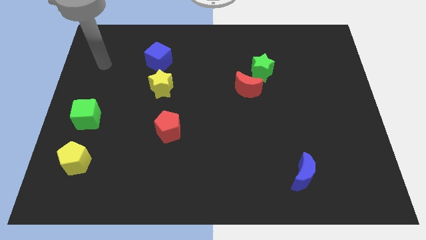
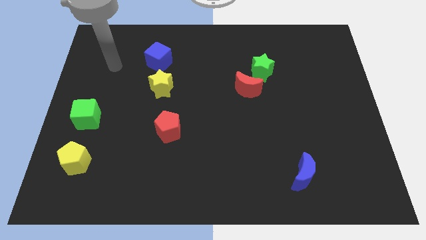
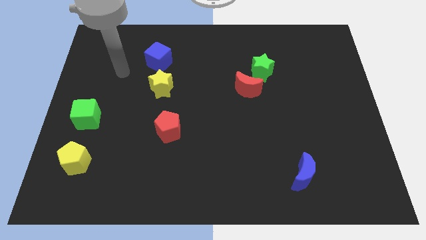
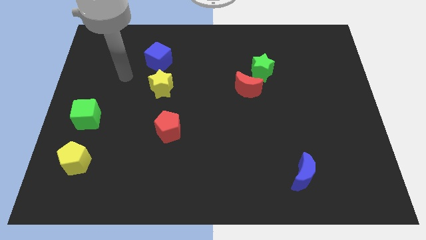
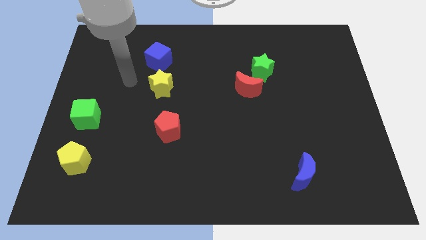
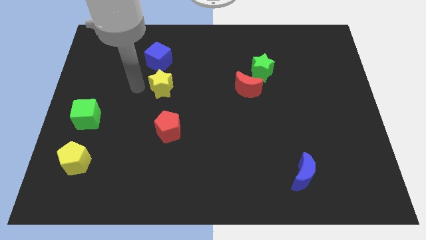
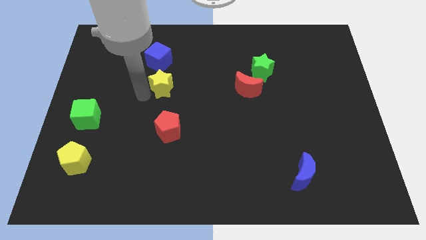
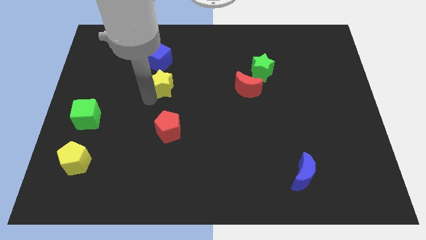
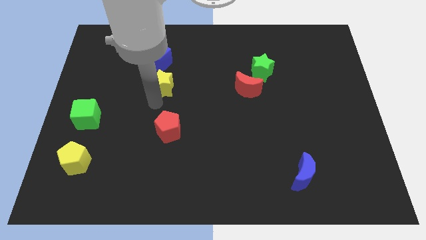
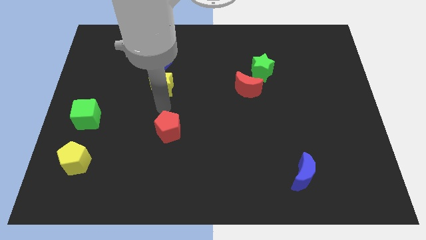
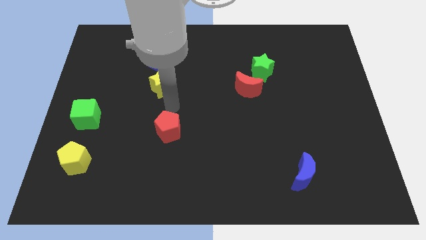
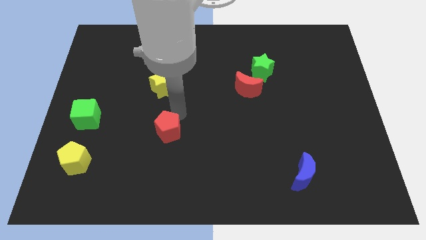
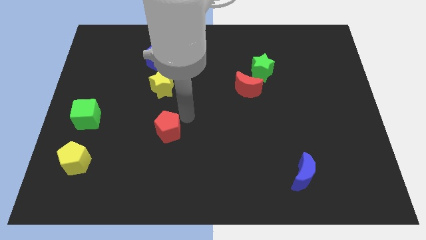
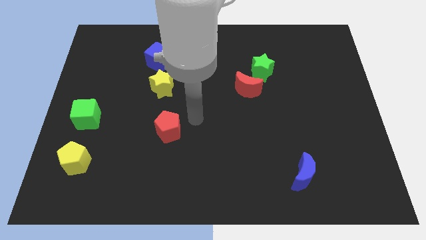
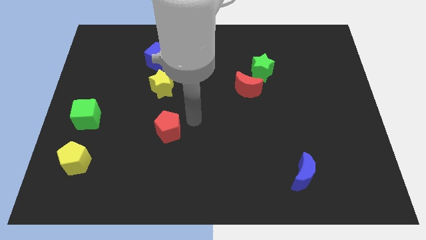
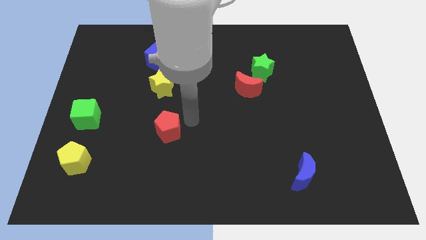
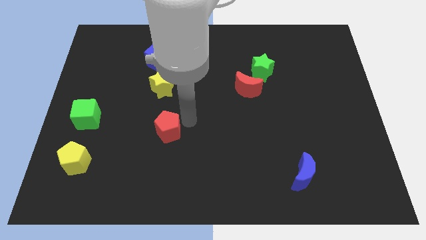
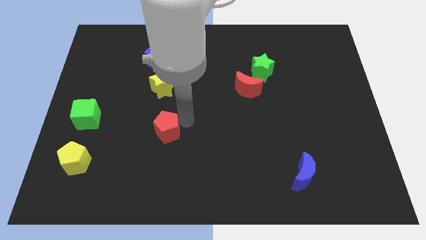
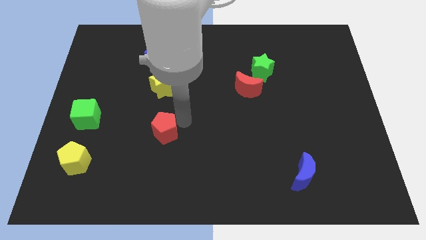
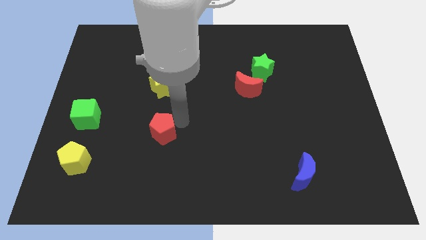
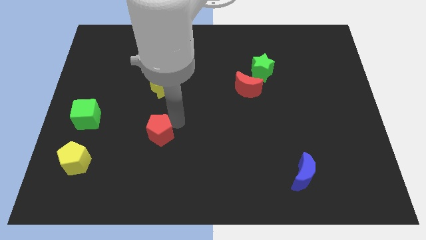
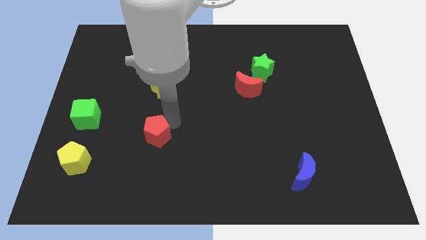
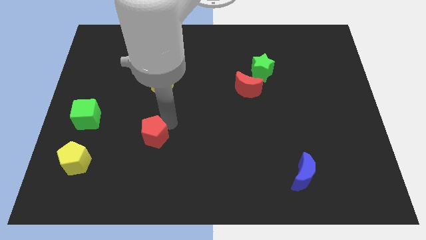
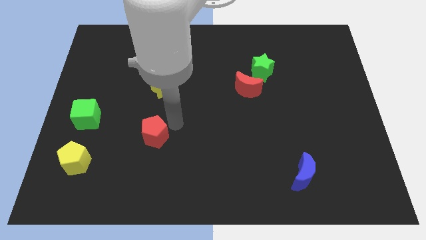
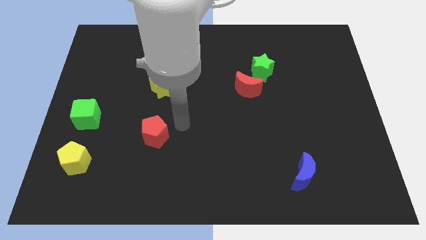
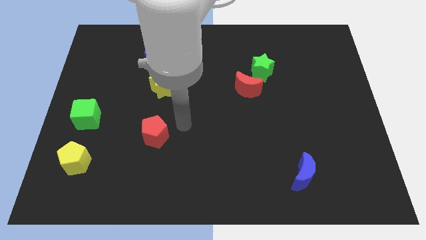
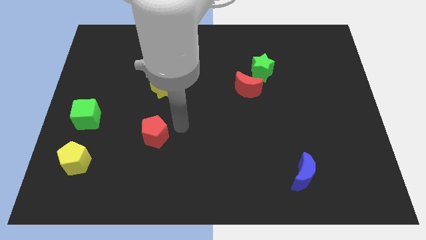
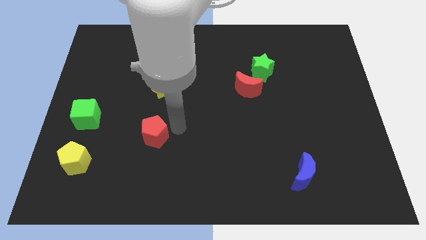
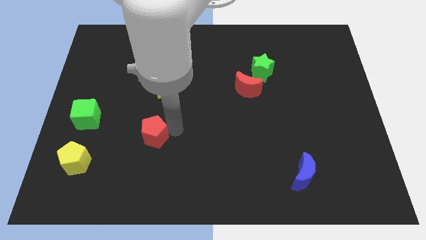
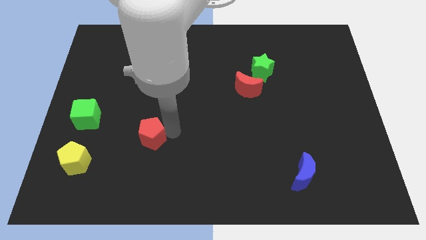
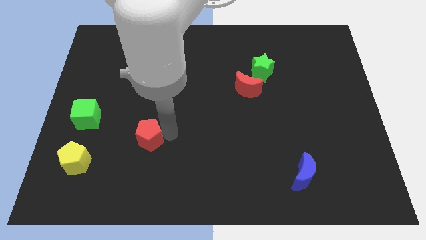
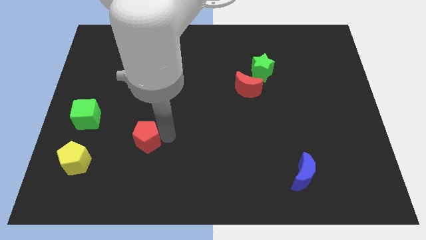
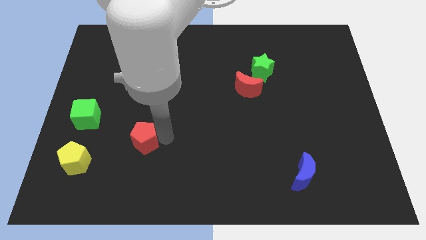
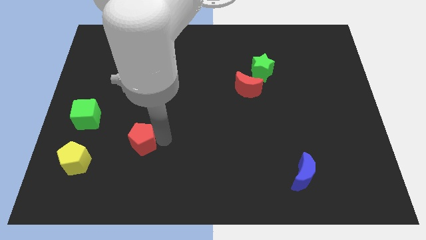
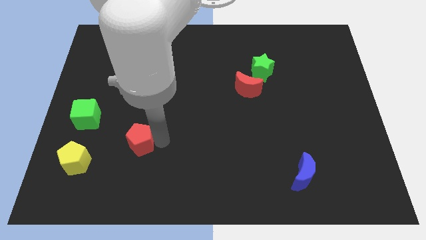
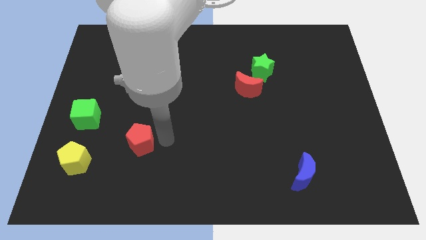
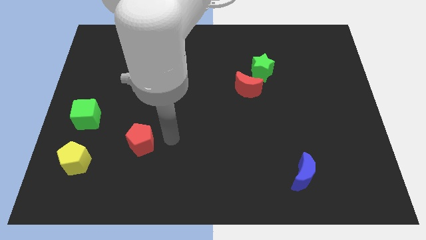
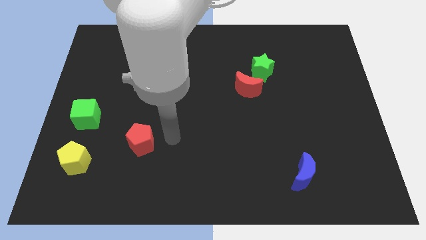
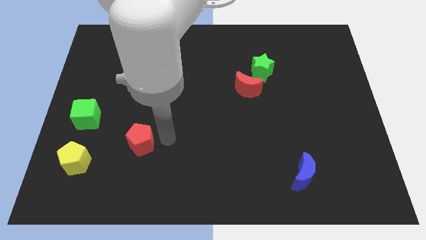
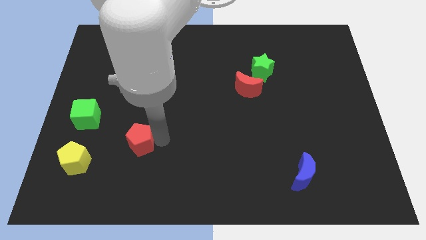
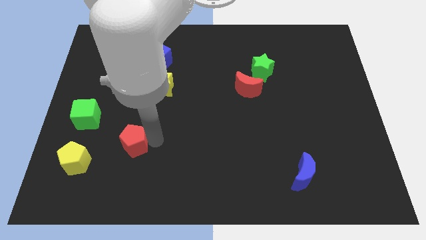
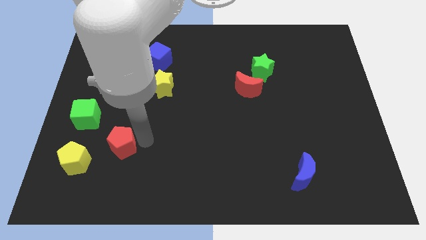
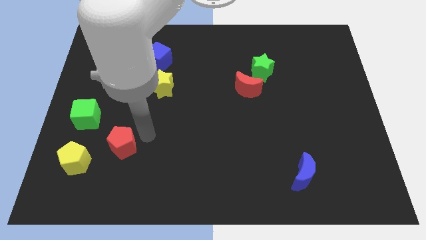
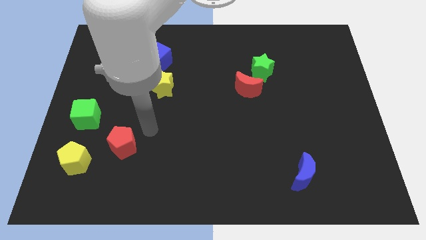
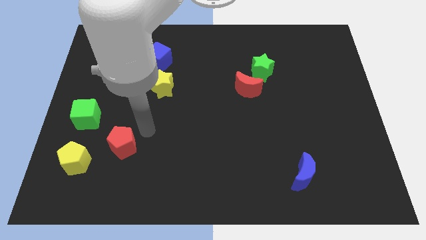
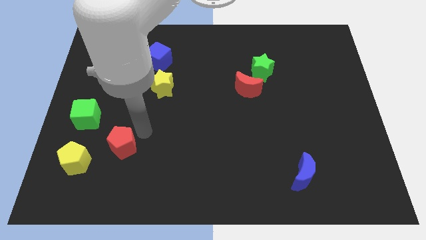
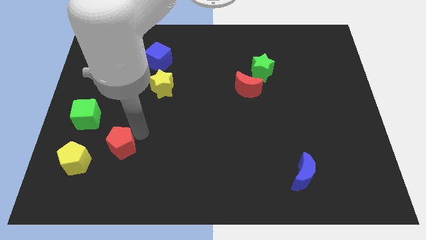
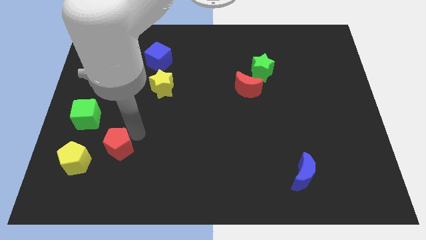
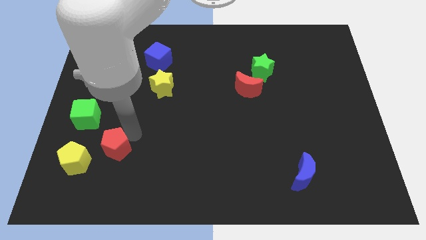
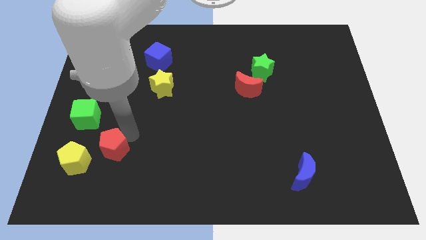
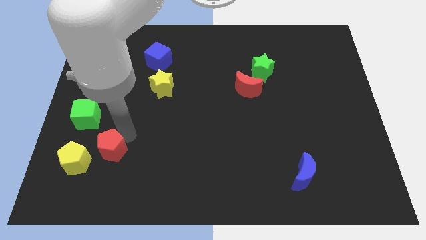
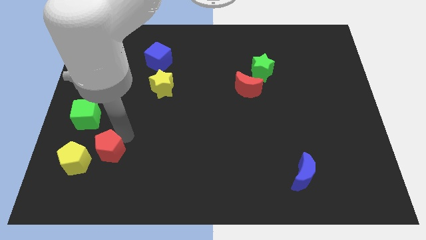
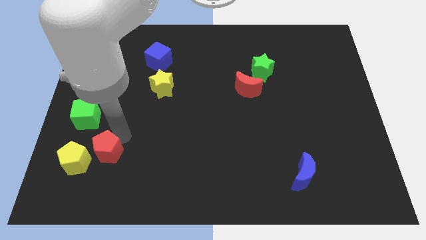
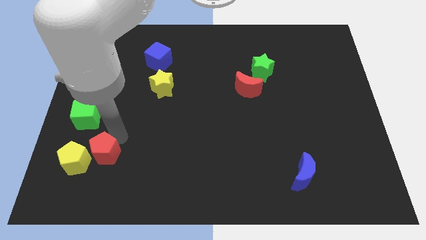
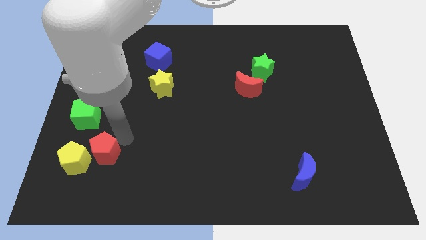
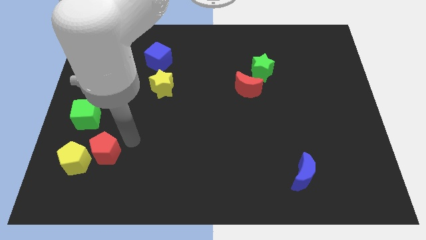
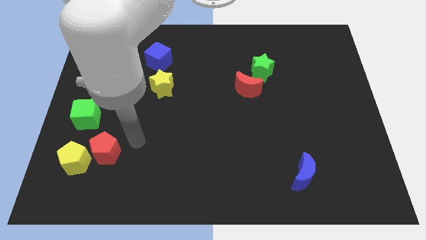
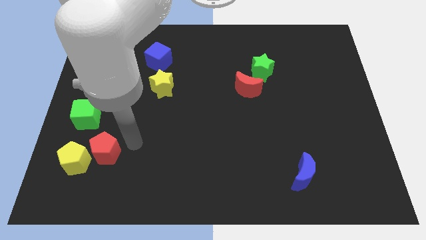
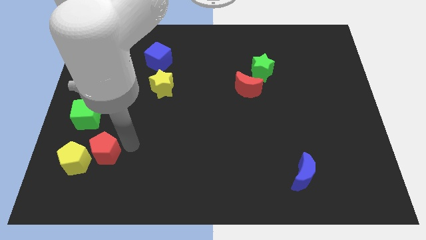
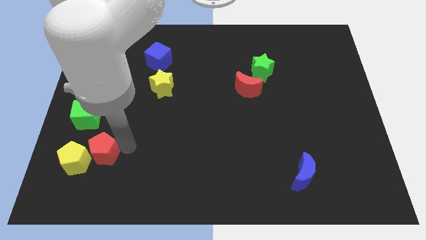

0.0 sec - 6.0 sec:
push the red pentagon next to the yellow pentagon

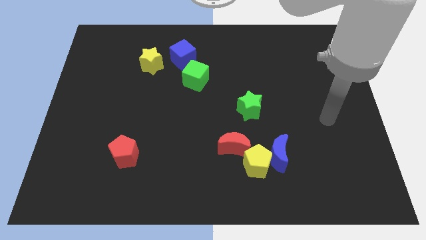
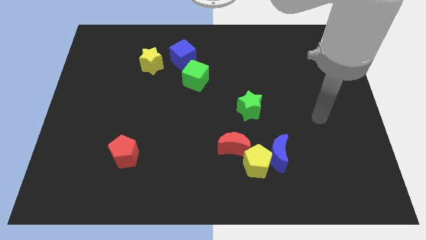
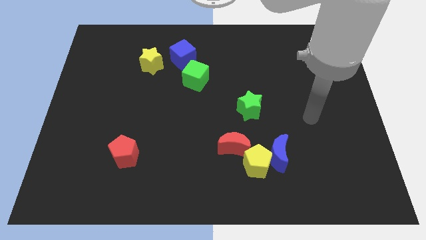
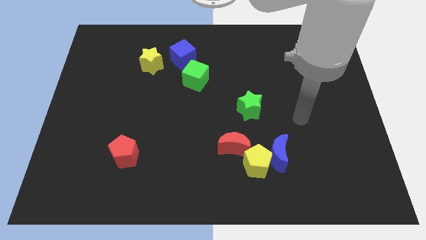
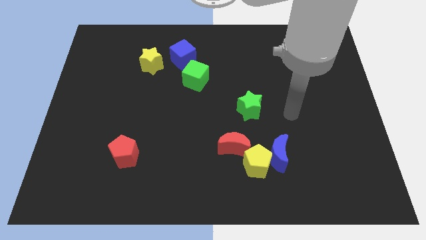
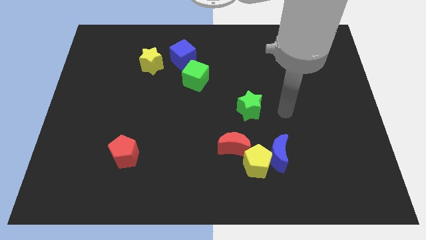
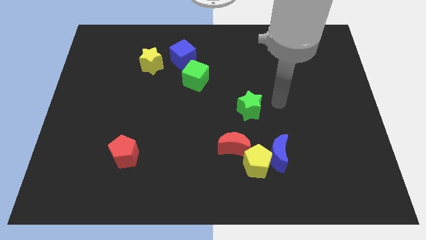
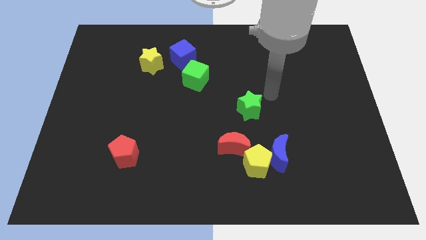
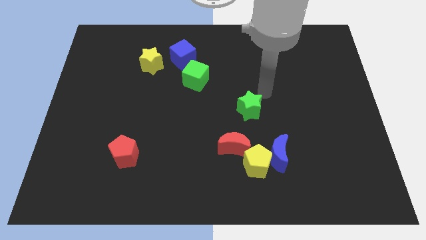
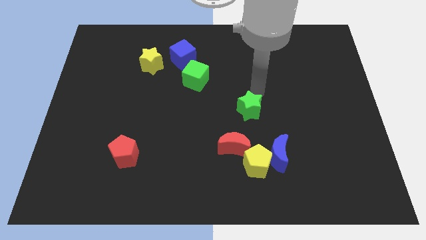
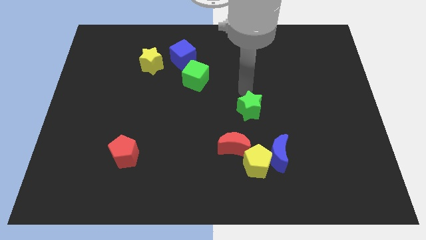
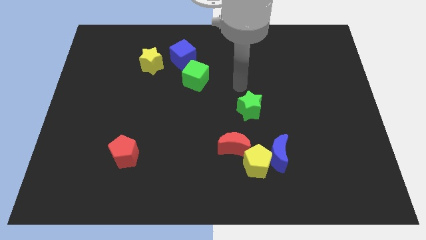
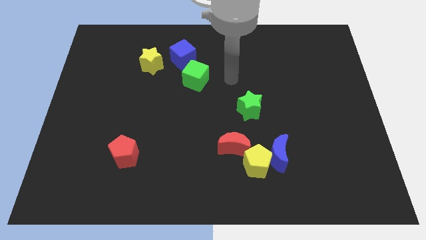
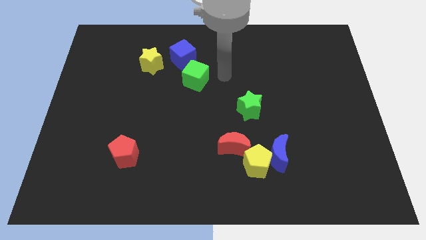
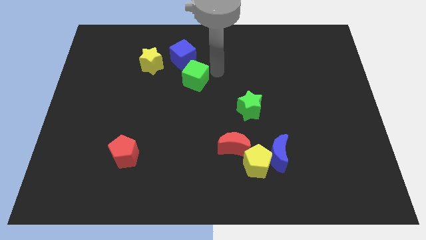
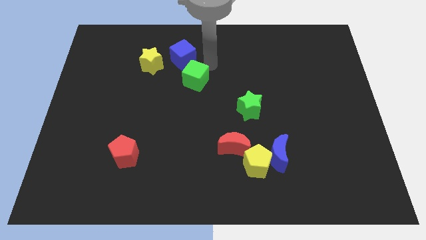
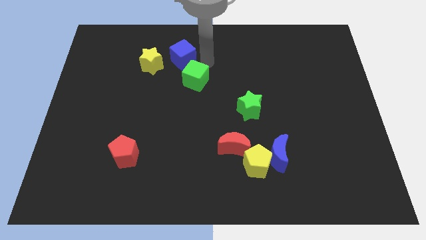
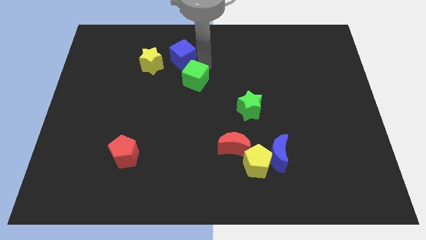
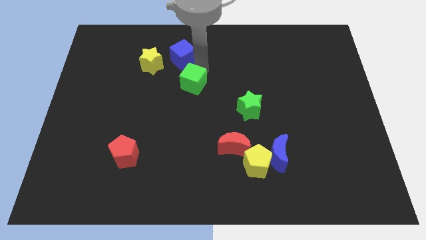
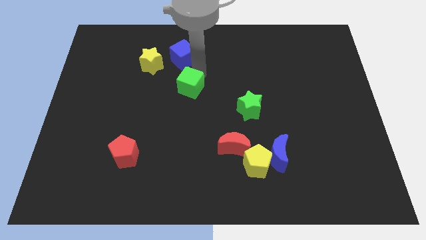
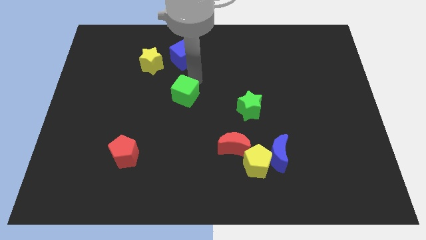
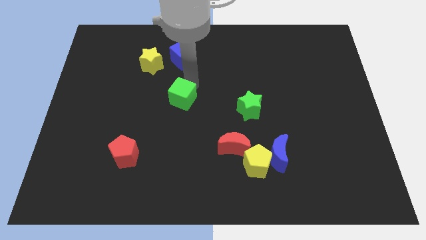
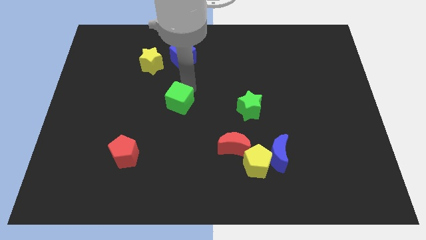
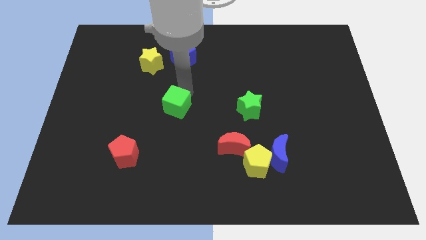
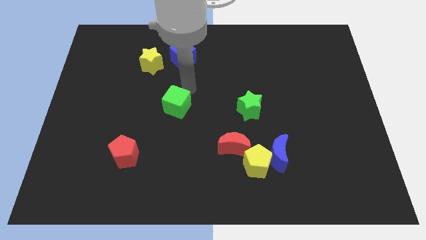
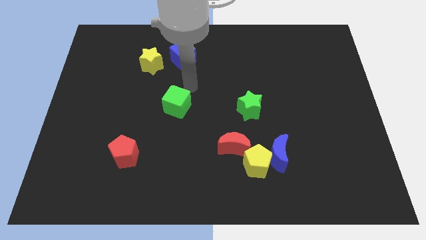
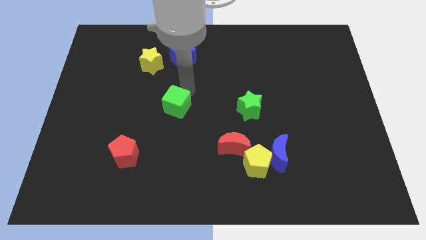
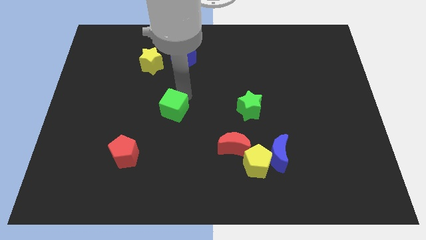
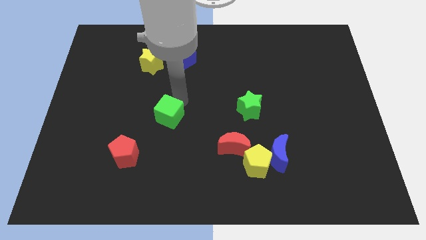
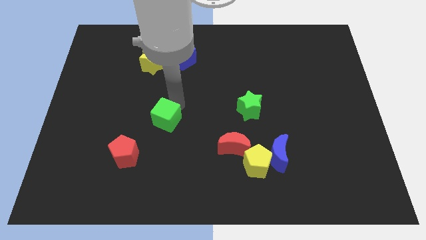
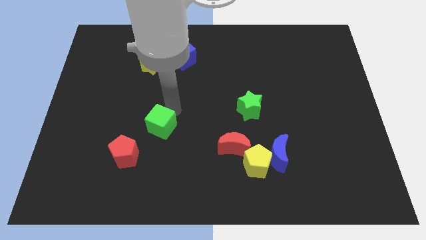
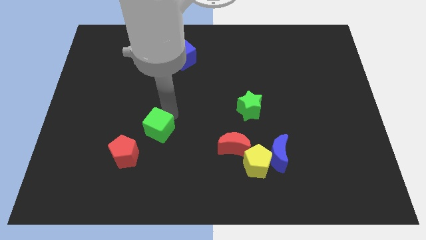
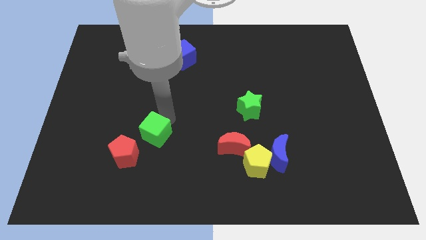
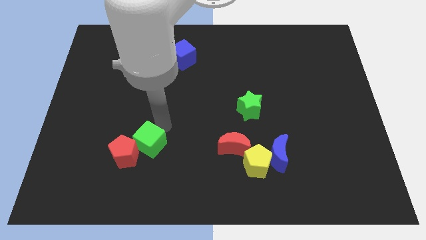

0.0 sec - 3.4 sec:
push the green cube close to the red pentagon
